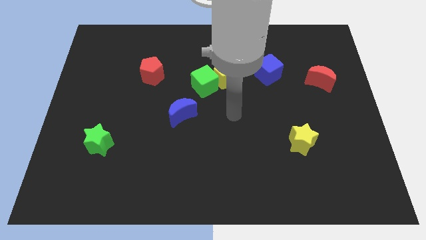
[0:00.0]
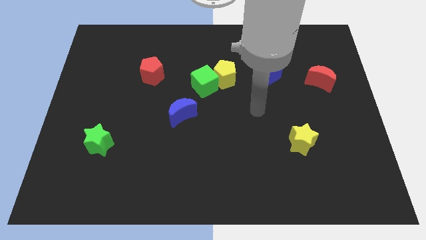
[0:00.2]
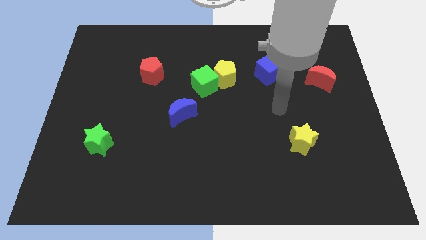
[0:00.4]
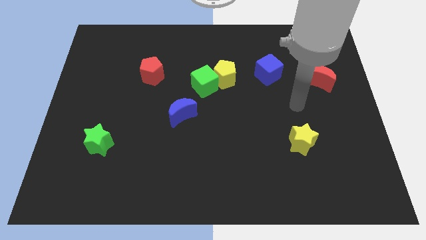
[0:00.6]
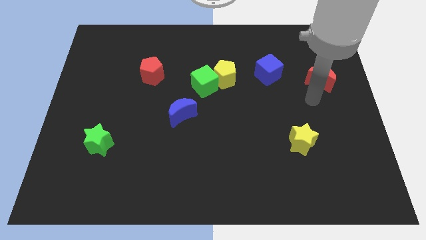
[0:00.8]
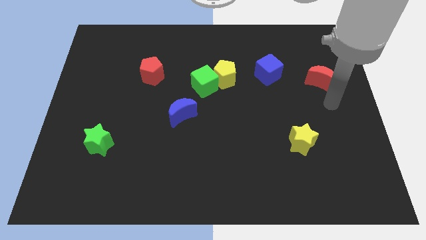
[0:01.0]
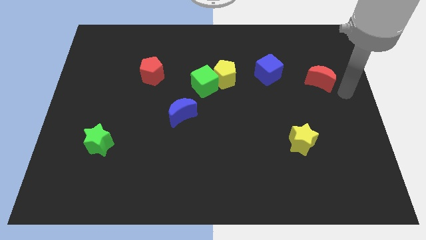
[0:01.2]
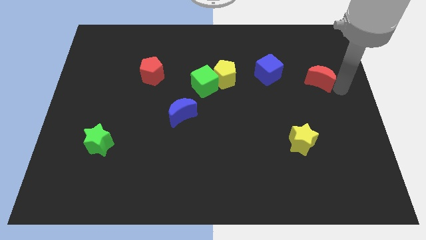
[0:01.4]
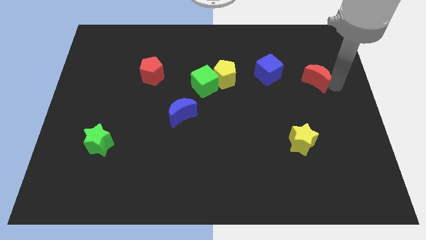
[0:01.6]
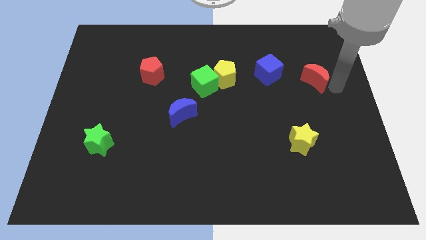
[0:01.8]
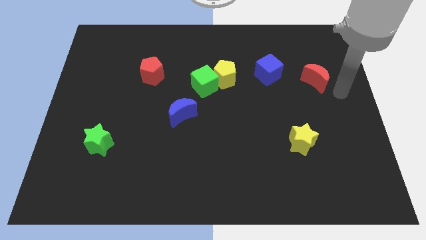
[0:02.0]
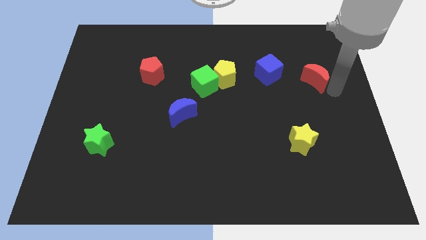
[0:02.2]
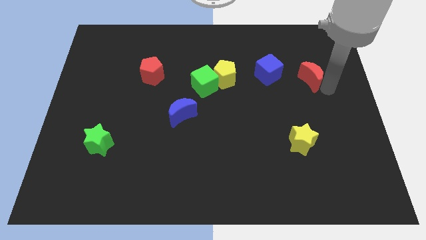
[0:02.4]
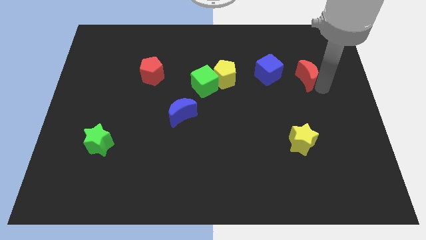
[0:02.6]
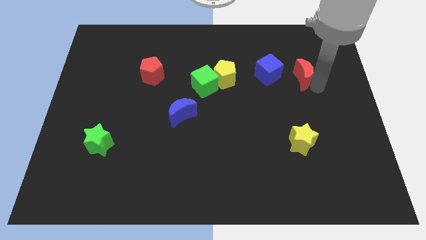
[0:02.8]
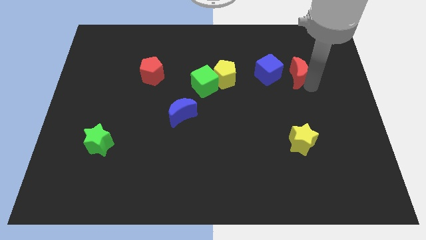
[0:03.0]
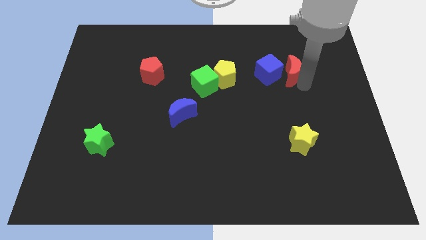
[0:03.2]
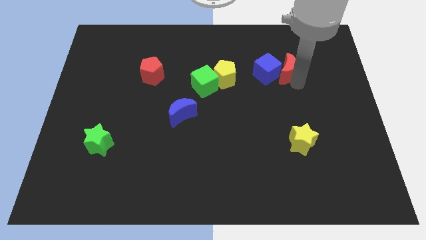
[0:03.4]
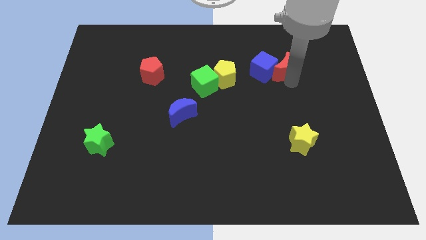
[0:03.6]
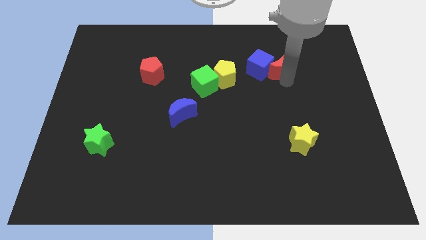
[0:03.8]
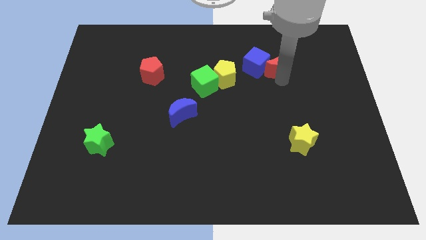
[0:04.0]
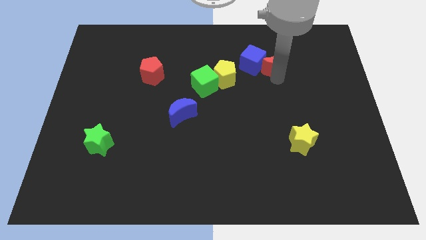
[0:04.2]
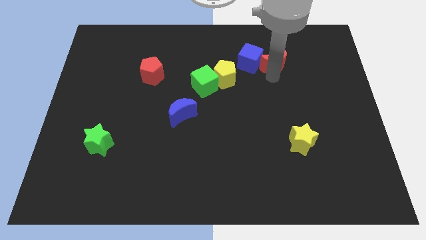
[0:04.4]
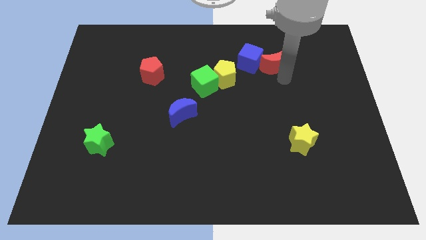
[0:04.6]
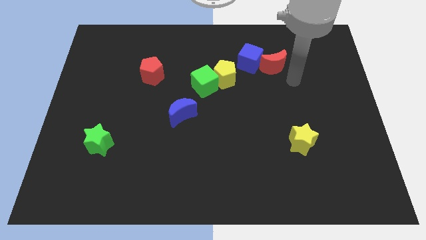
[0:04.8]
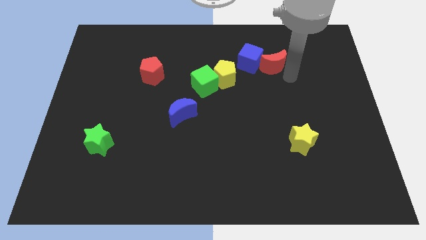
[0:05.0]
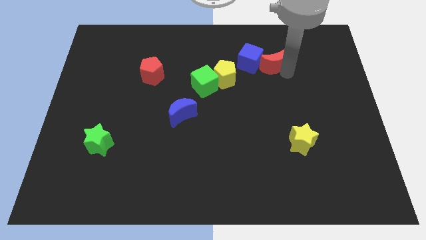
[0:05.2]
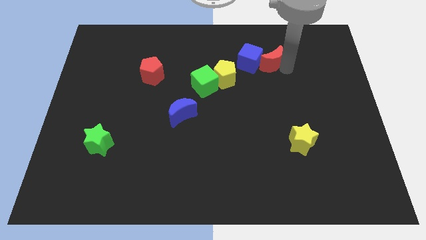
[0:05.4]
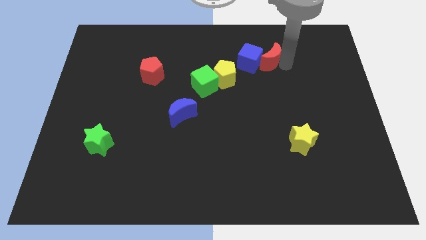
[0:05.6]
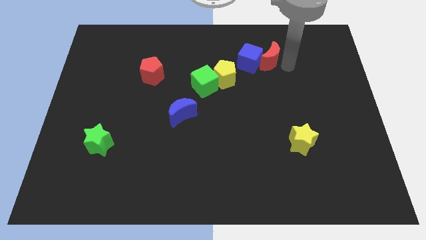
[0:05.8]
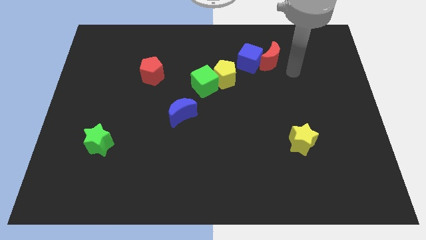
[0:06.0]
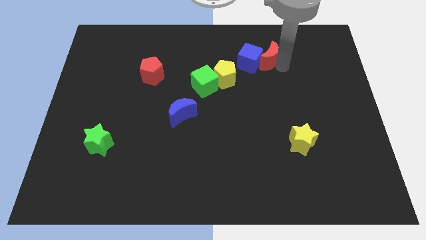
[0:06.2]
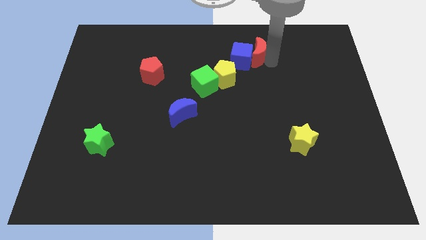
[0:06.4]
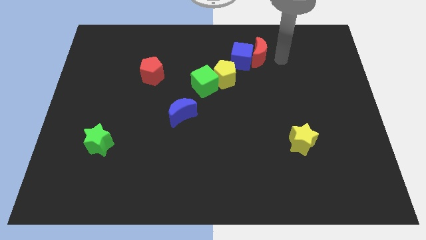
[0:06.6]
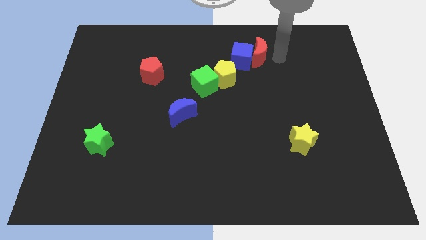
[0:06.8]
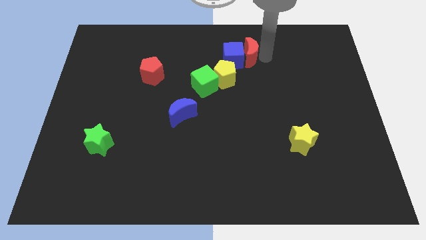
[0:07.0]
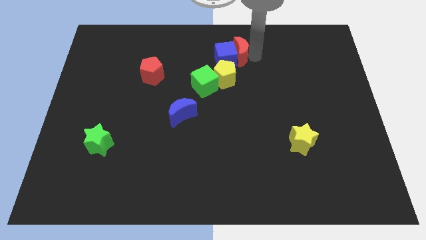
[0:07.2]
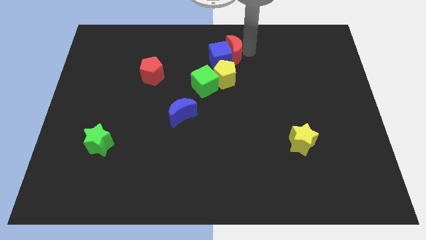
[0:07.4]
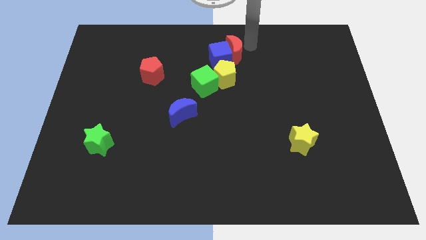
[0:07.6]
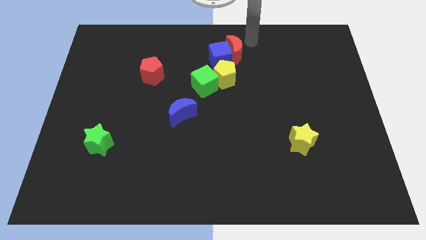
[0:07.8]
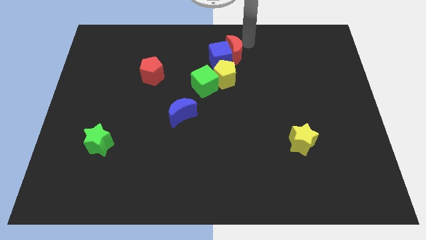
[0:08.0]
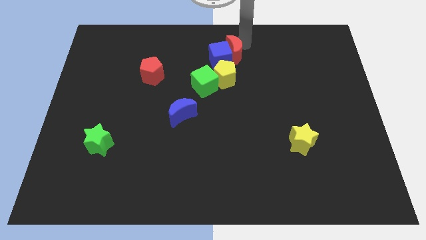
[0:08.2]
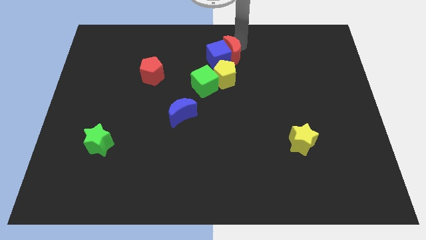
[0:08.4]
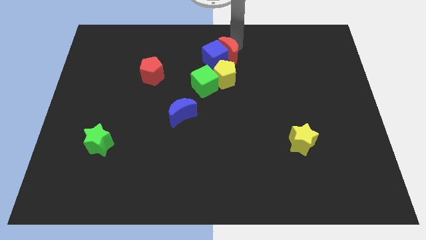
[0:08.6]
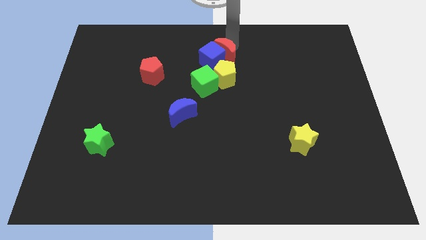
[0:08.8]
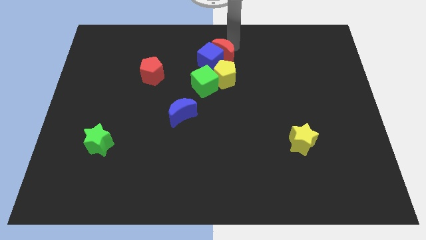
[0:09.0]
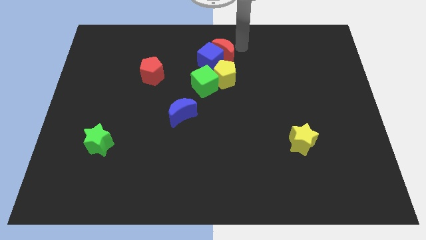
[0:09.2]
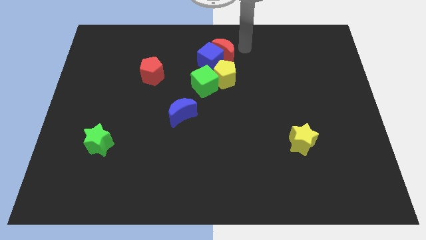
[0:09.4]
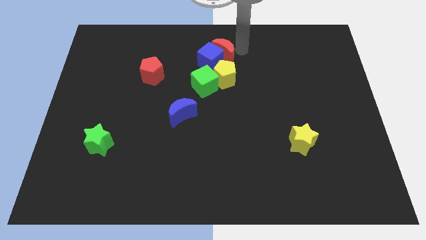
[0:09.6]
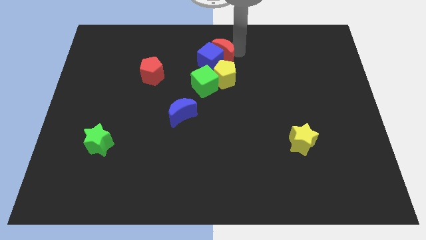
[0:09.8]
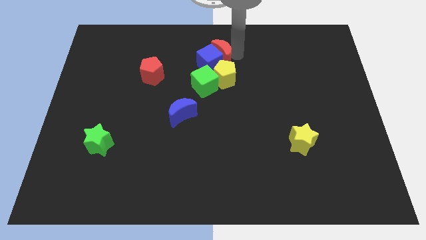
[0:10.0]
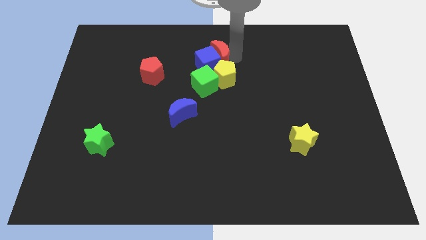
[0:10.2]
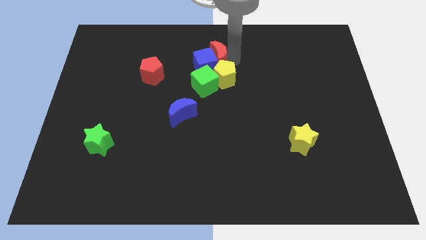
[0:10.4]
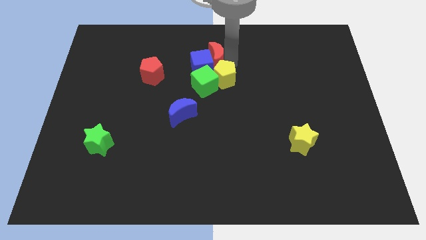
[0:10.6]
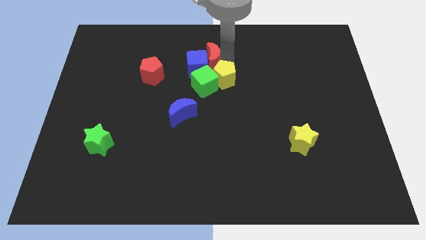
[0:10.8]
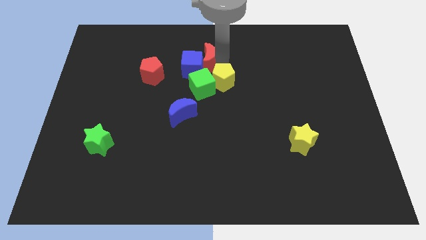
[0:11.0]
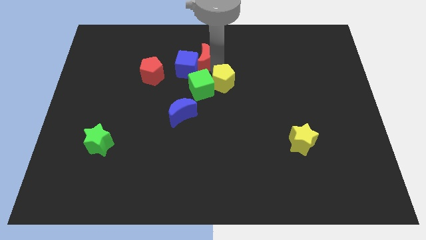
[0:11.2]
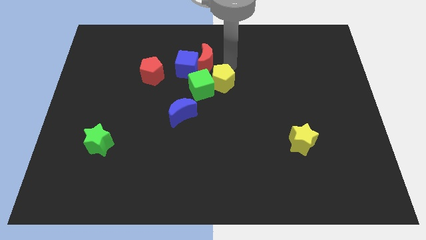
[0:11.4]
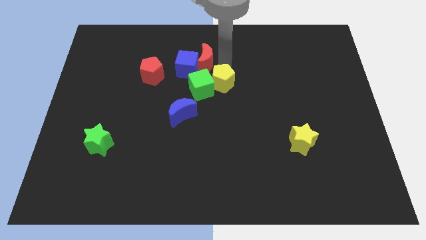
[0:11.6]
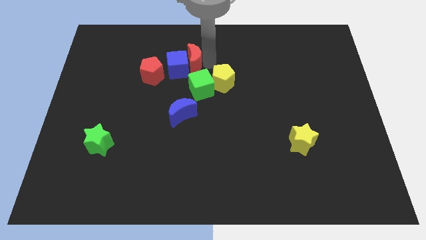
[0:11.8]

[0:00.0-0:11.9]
push the red moon to the top right side of the red pentagon
